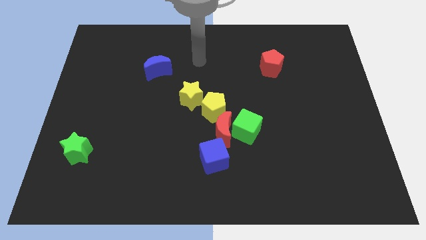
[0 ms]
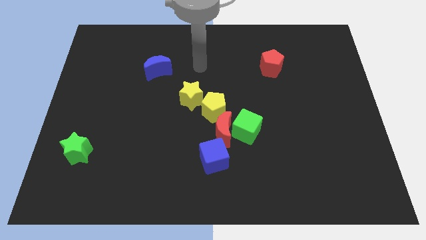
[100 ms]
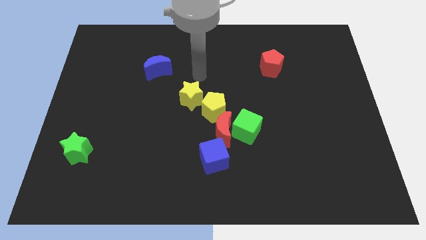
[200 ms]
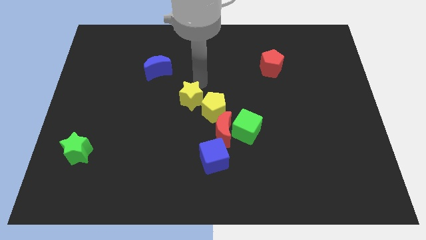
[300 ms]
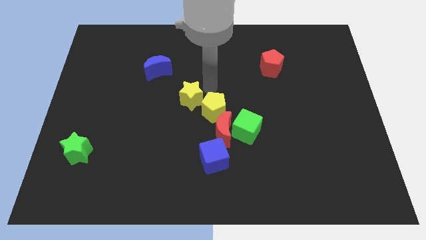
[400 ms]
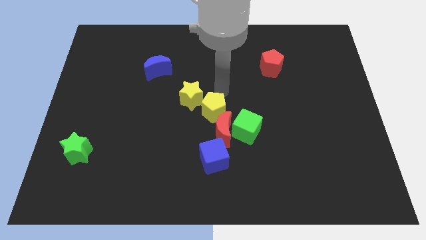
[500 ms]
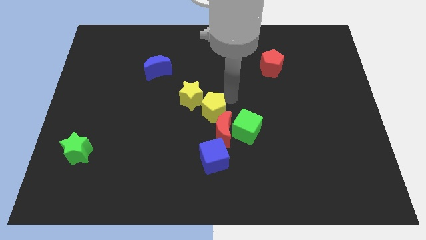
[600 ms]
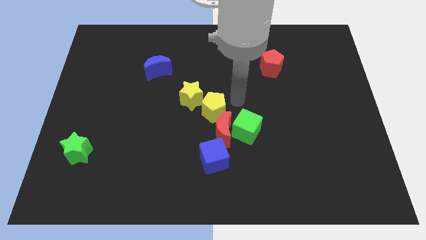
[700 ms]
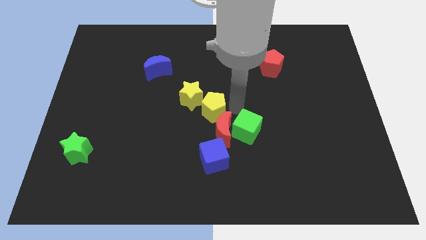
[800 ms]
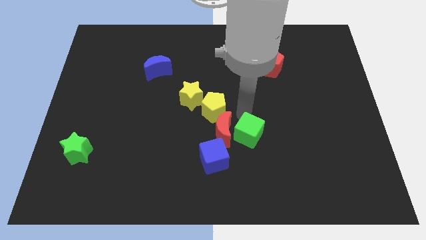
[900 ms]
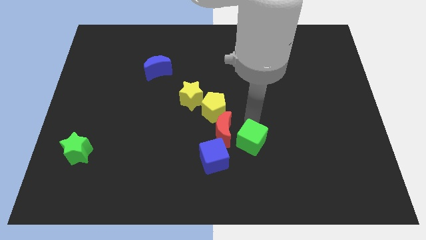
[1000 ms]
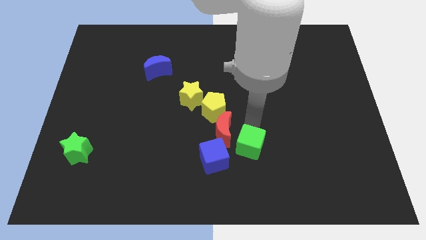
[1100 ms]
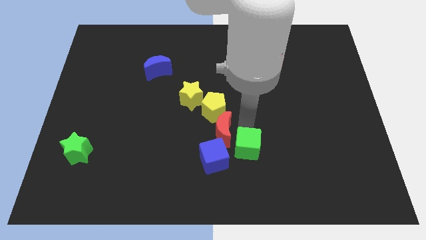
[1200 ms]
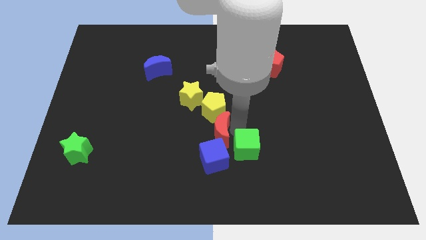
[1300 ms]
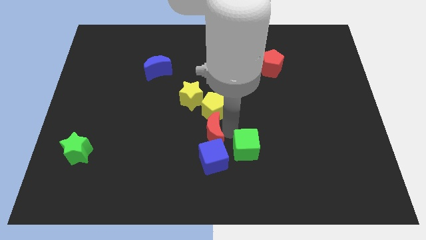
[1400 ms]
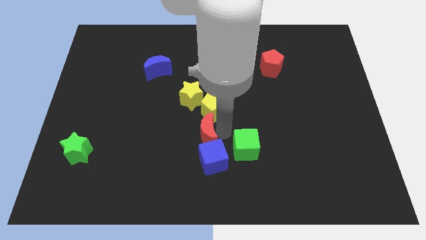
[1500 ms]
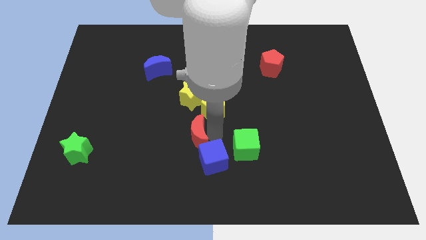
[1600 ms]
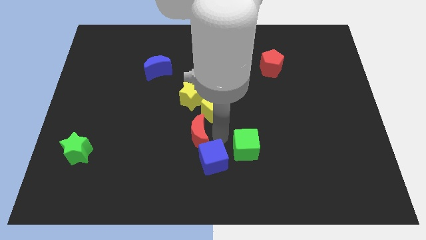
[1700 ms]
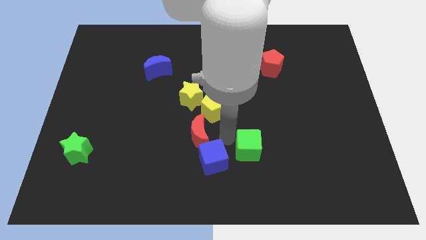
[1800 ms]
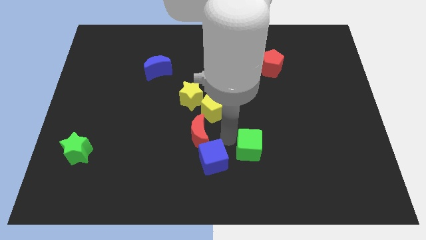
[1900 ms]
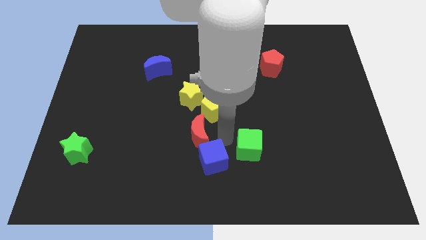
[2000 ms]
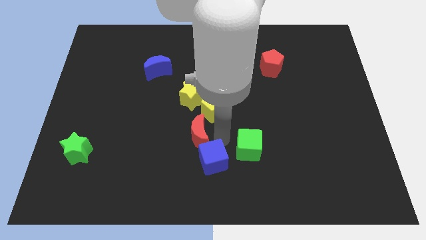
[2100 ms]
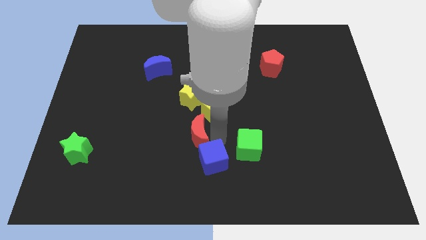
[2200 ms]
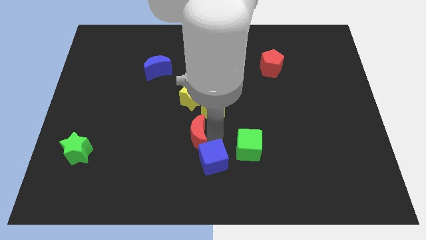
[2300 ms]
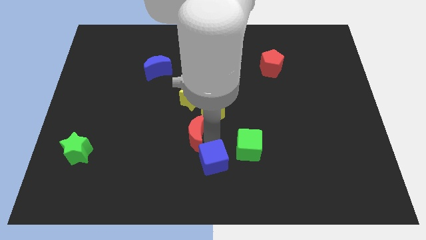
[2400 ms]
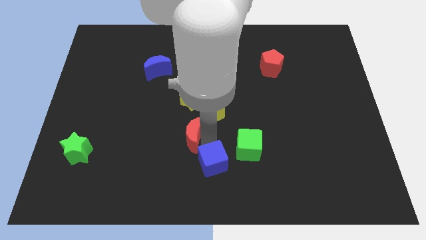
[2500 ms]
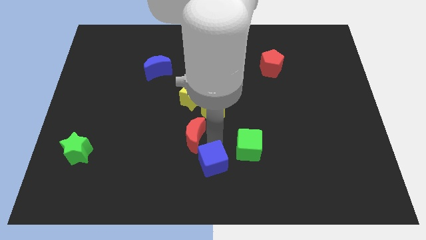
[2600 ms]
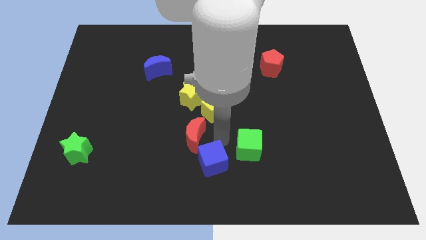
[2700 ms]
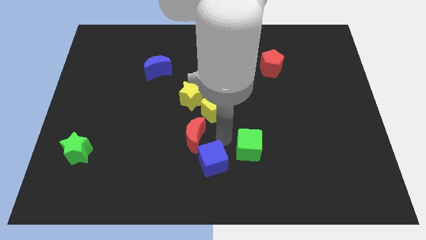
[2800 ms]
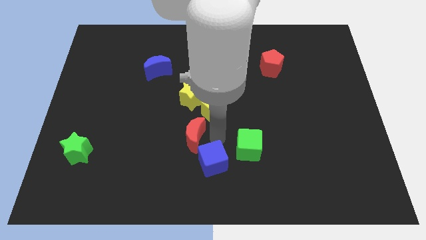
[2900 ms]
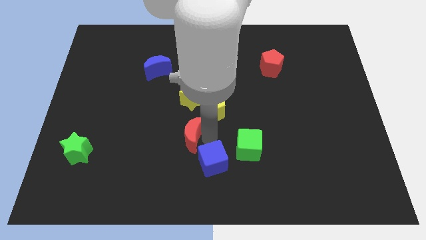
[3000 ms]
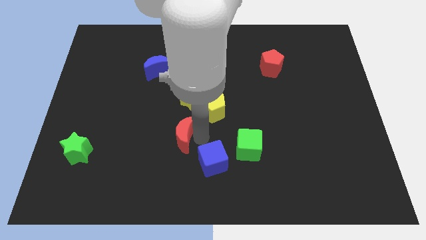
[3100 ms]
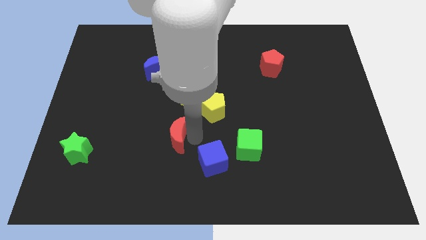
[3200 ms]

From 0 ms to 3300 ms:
pull the red moon apart from the green cube, yellow pentagon, and blue cube

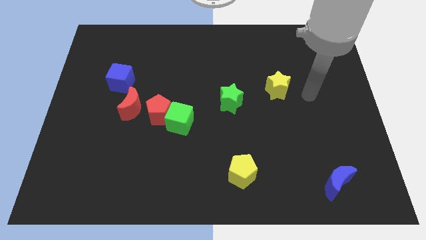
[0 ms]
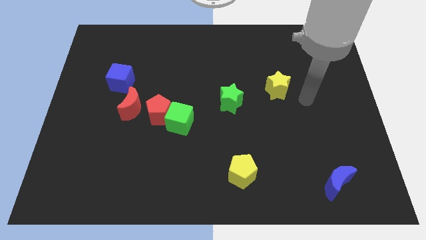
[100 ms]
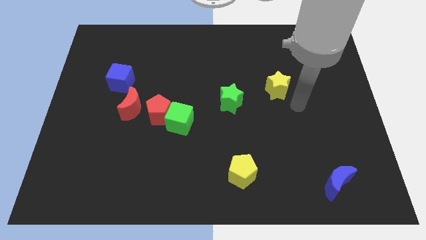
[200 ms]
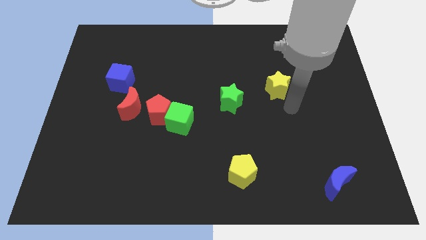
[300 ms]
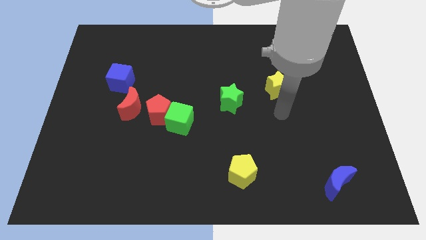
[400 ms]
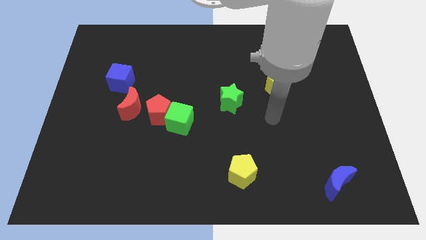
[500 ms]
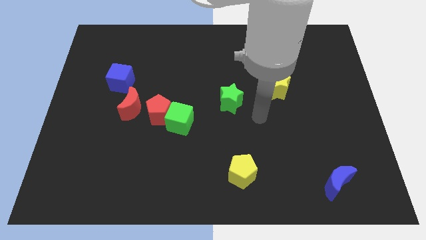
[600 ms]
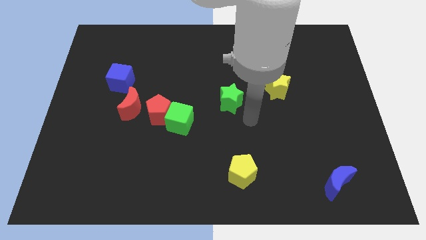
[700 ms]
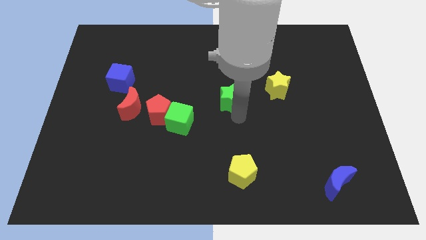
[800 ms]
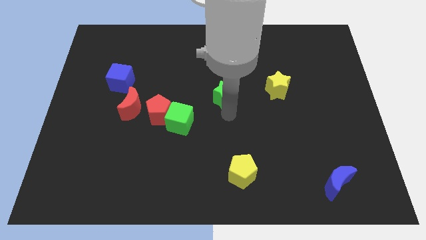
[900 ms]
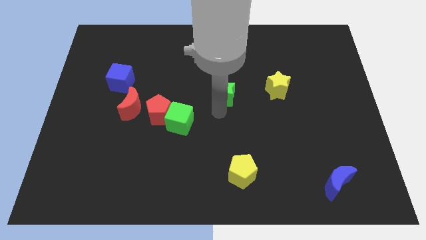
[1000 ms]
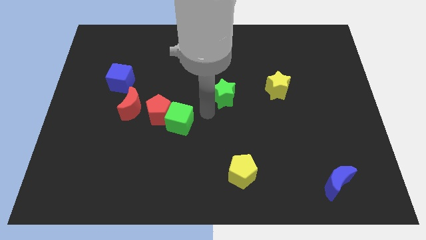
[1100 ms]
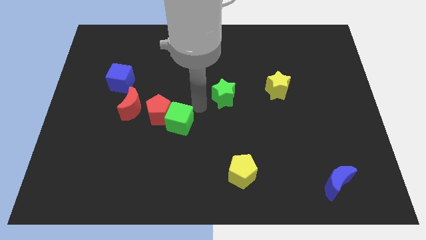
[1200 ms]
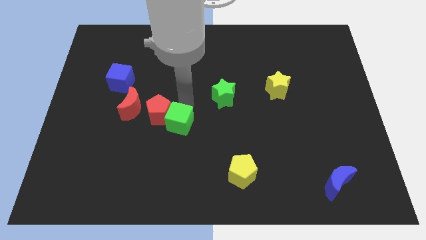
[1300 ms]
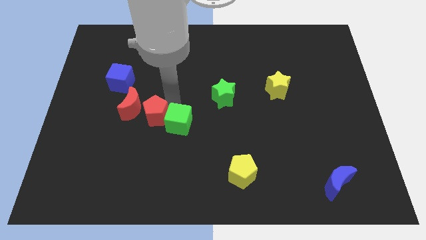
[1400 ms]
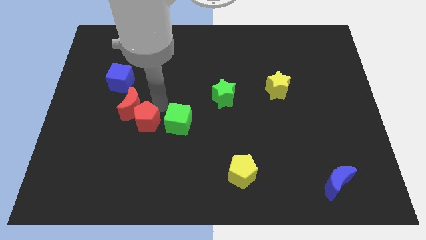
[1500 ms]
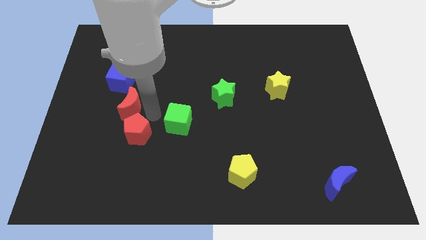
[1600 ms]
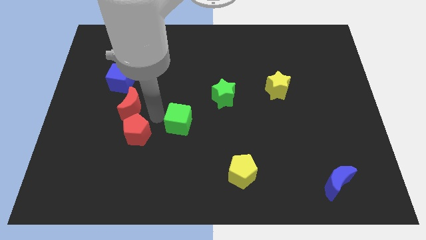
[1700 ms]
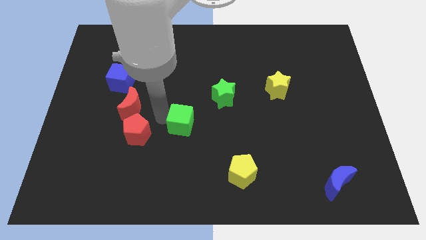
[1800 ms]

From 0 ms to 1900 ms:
pull the green cube apart from the red pentagon

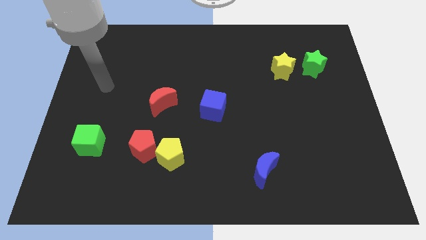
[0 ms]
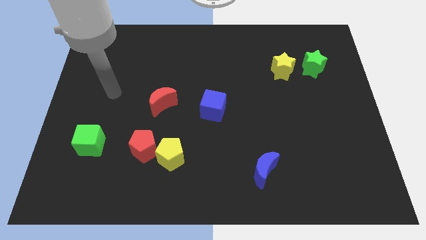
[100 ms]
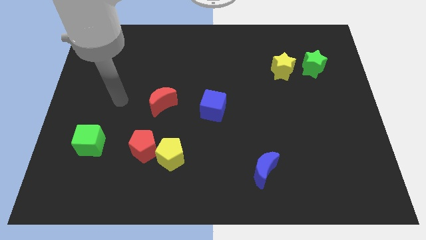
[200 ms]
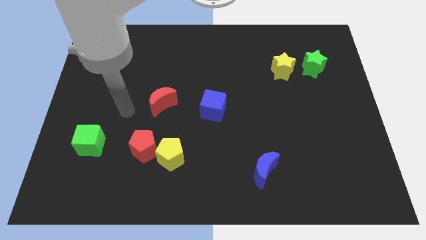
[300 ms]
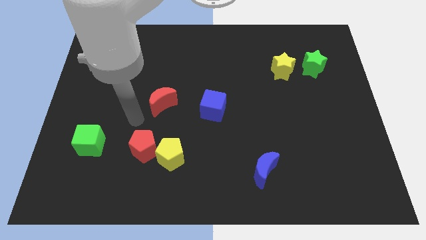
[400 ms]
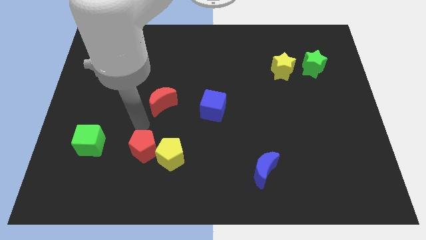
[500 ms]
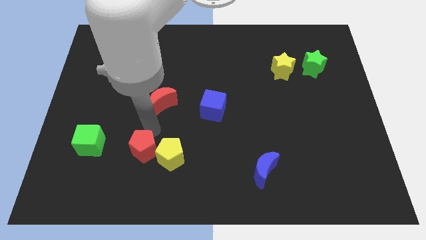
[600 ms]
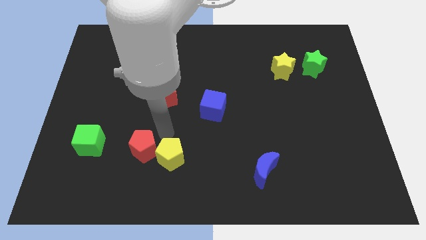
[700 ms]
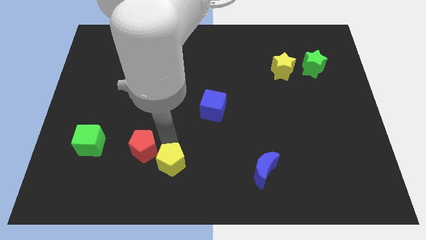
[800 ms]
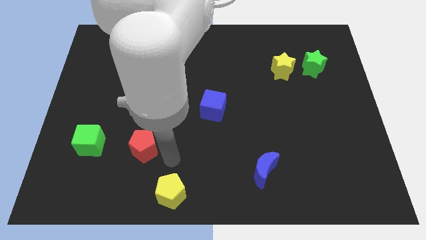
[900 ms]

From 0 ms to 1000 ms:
separate the red pentagon from the yellow pentagon

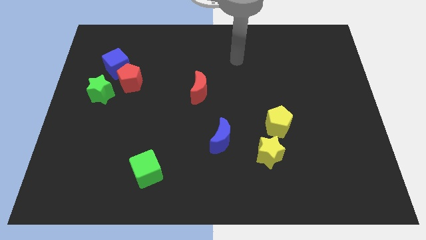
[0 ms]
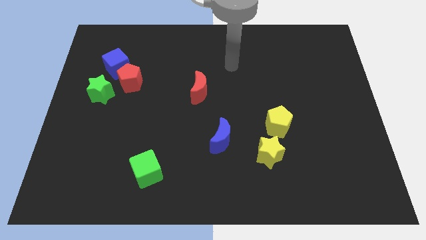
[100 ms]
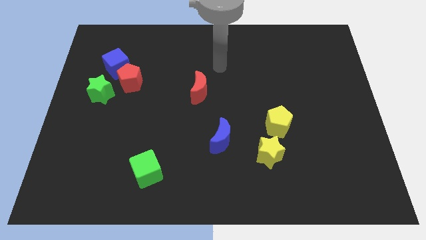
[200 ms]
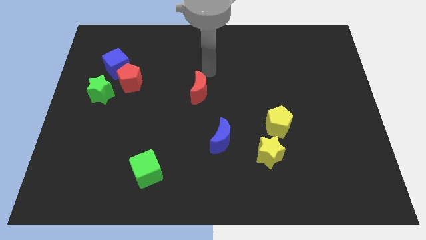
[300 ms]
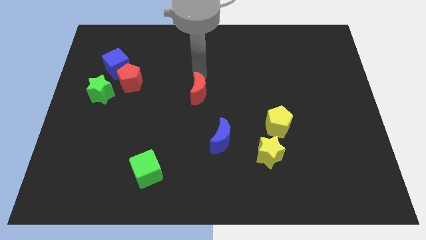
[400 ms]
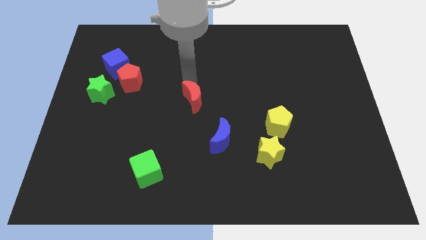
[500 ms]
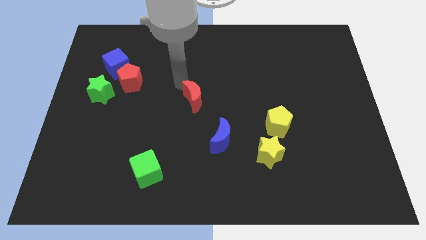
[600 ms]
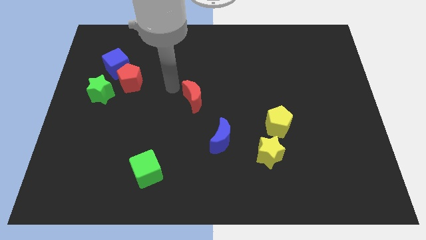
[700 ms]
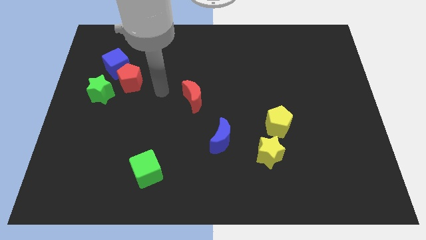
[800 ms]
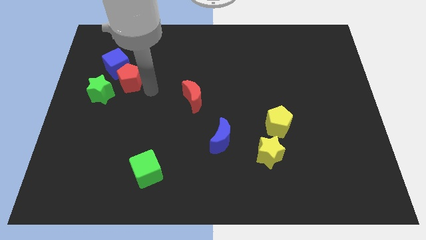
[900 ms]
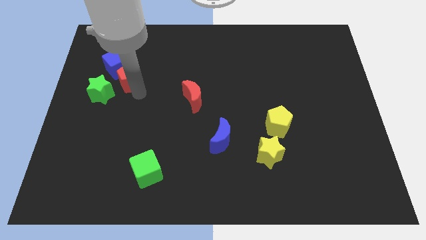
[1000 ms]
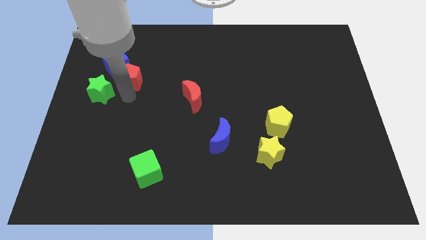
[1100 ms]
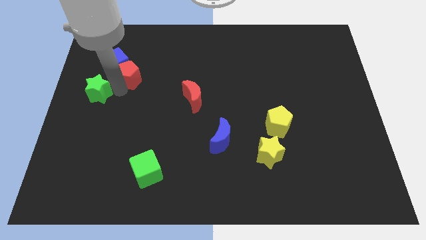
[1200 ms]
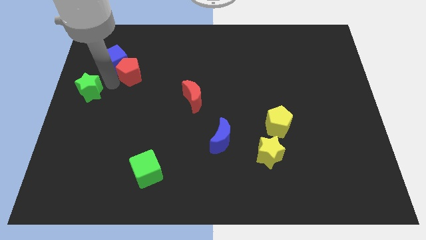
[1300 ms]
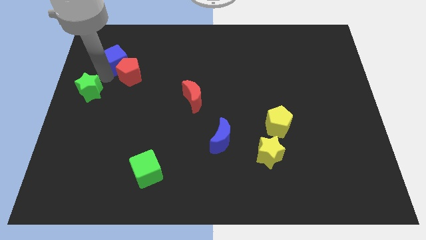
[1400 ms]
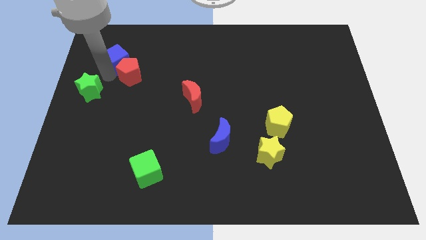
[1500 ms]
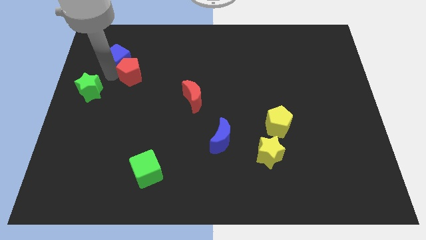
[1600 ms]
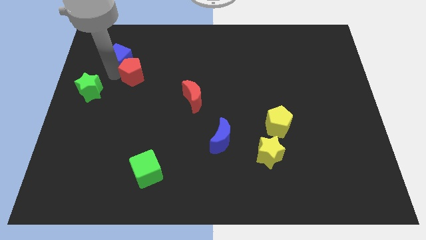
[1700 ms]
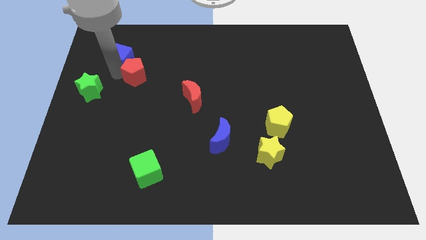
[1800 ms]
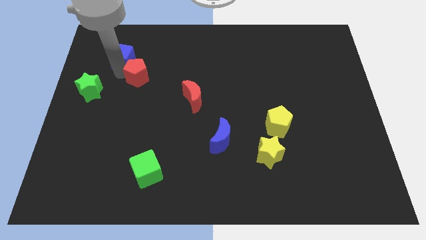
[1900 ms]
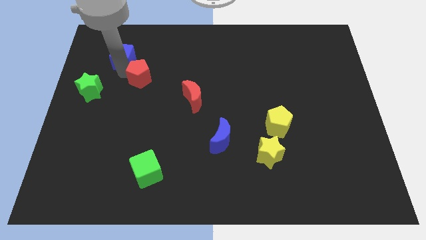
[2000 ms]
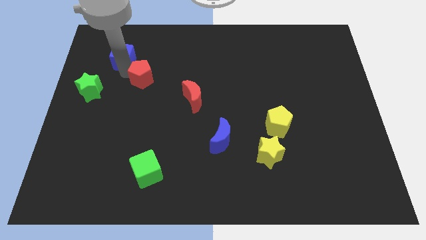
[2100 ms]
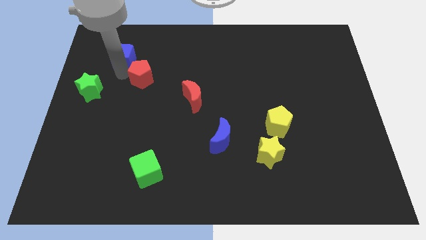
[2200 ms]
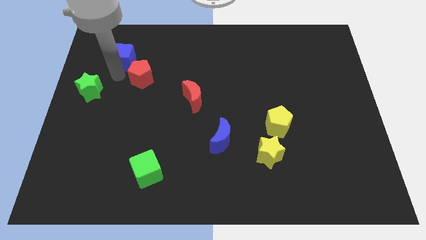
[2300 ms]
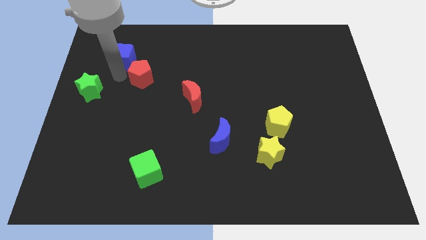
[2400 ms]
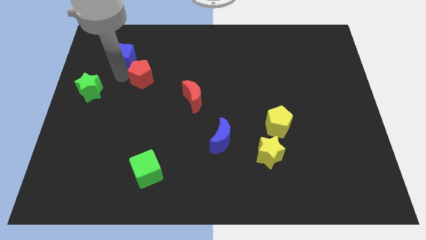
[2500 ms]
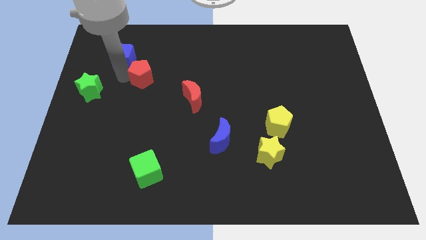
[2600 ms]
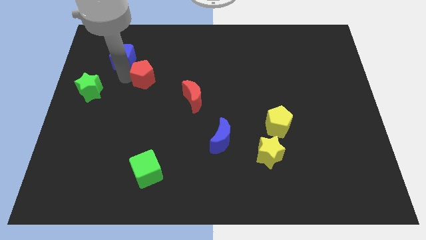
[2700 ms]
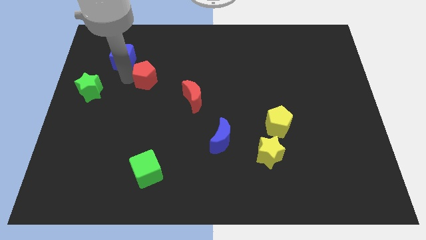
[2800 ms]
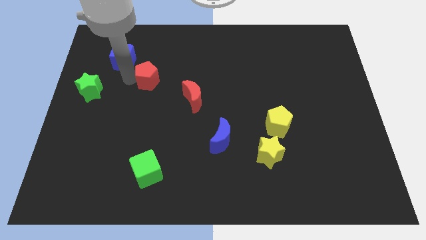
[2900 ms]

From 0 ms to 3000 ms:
move the red pentagon away from the blue cube and green star

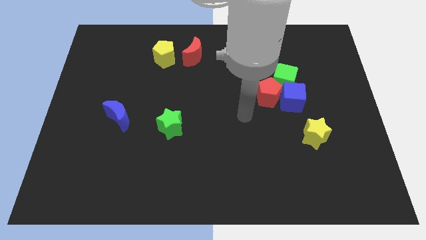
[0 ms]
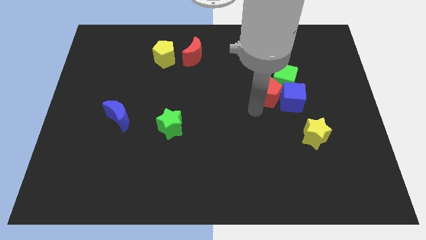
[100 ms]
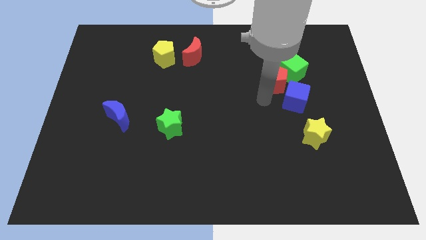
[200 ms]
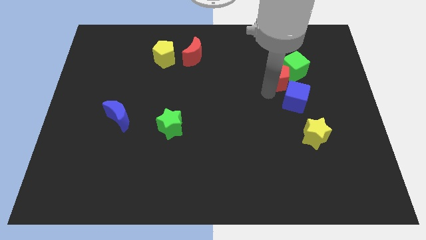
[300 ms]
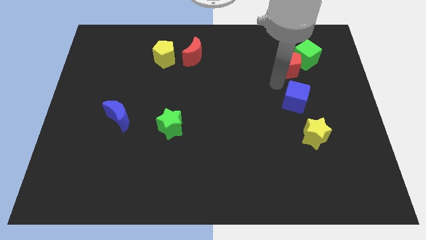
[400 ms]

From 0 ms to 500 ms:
pull the blue cube apart from the red pentagon and green cube
